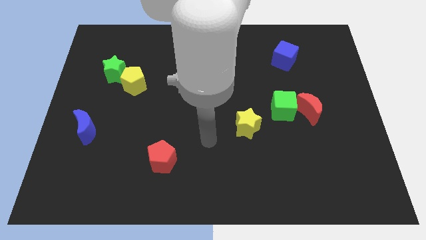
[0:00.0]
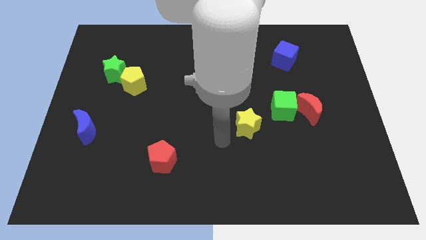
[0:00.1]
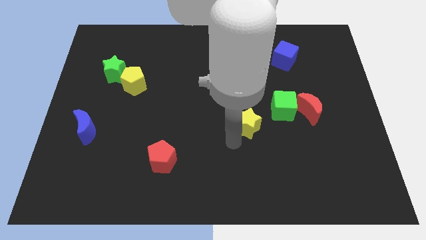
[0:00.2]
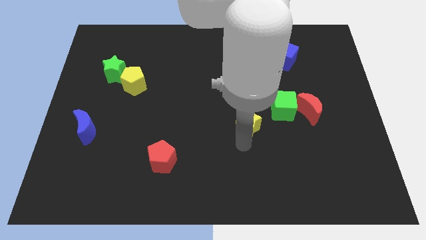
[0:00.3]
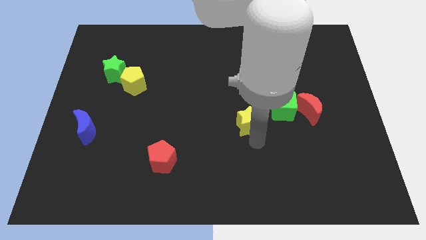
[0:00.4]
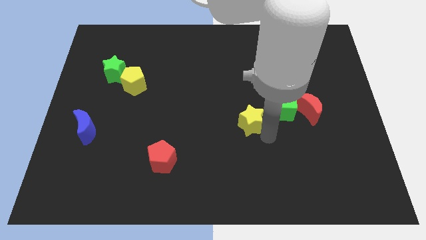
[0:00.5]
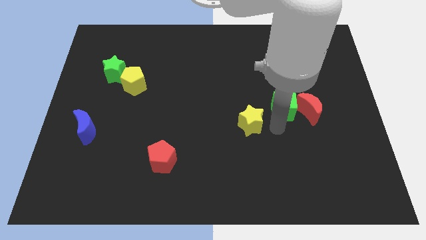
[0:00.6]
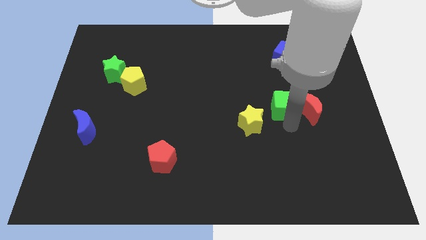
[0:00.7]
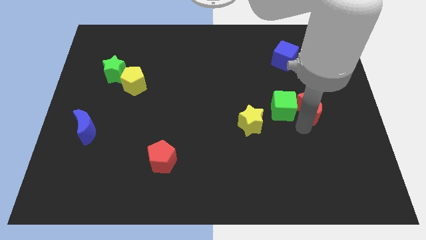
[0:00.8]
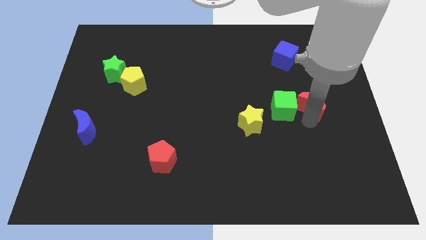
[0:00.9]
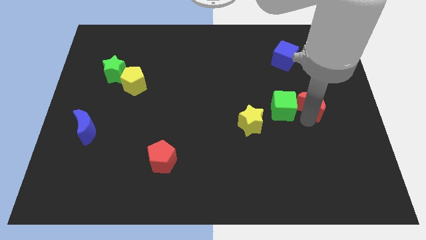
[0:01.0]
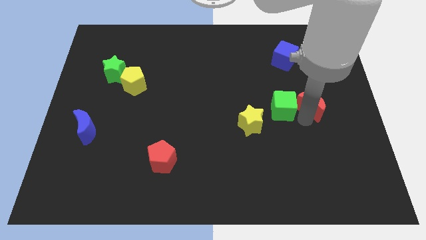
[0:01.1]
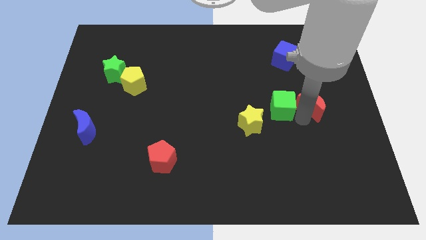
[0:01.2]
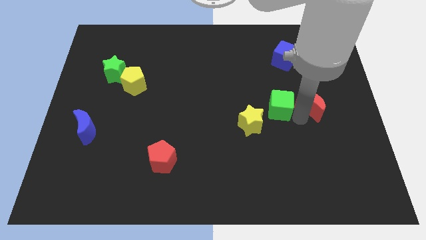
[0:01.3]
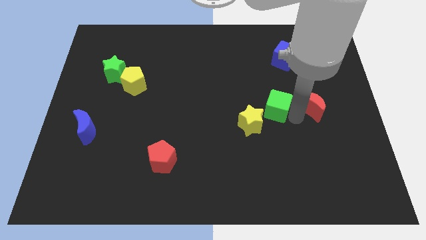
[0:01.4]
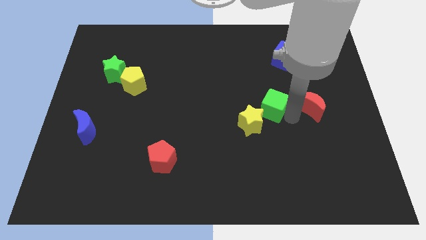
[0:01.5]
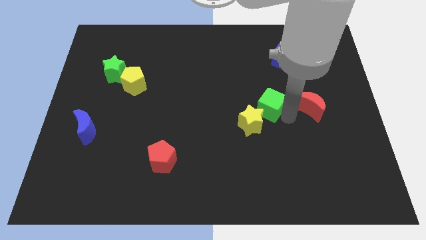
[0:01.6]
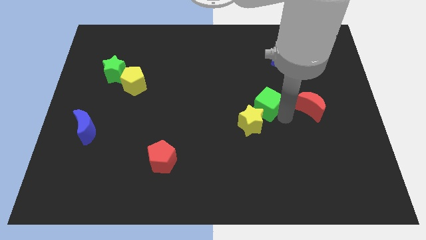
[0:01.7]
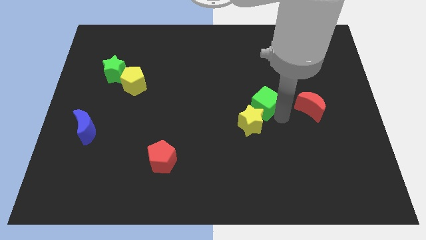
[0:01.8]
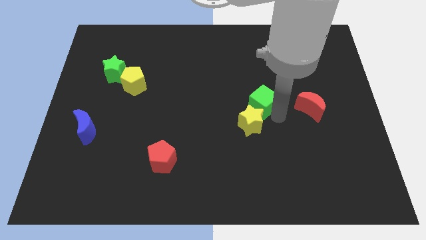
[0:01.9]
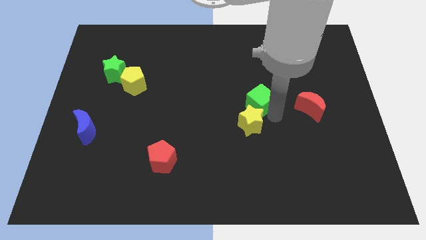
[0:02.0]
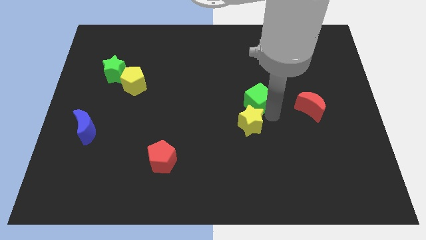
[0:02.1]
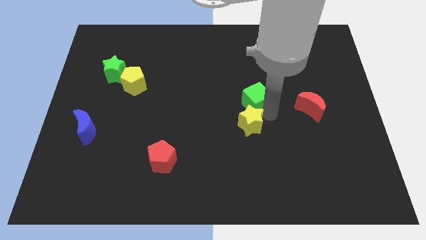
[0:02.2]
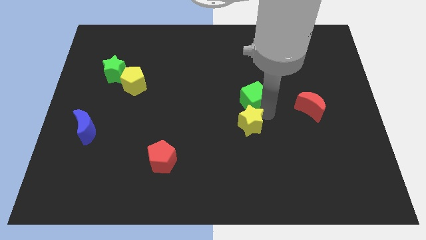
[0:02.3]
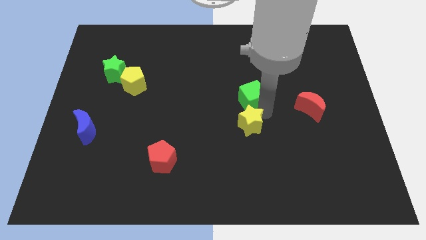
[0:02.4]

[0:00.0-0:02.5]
push the green cube up and then to the left a little bit

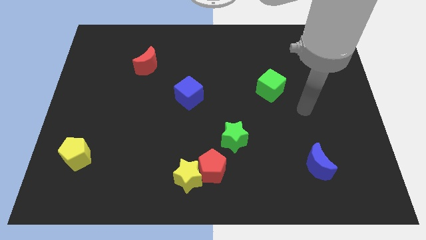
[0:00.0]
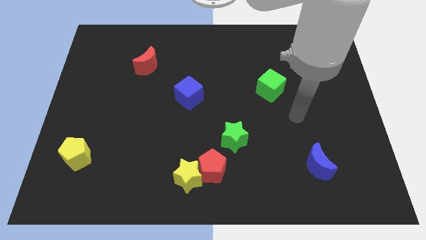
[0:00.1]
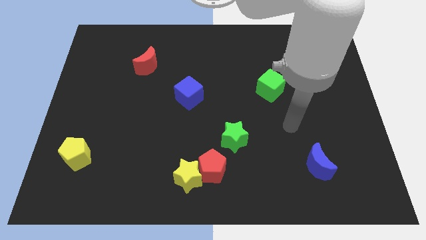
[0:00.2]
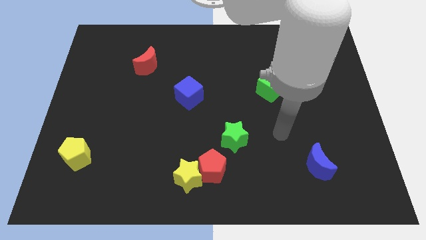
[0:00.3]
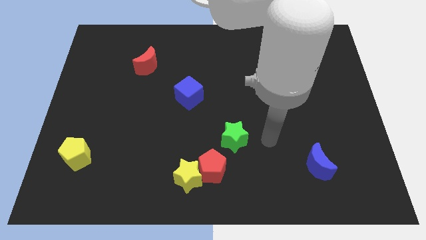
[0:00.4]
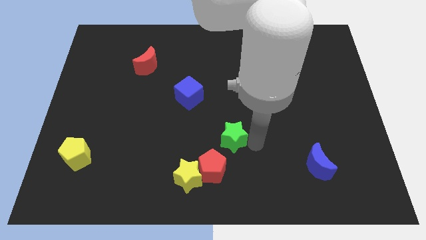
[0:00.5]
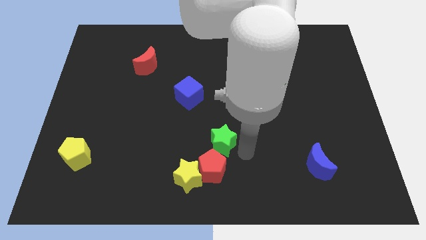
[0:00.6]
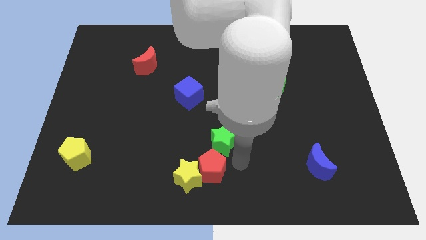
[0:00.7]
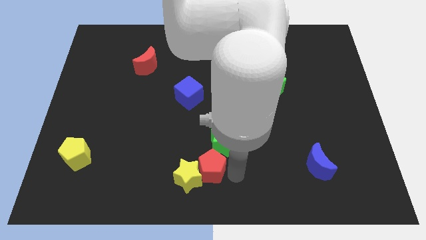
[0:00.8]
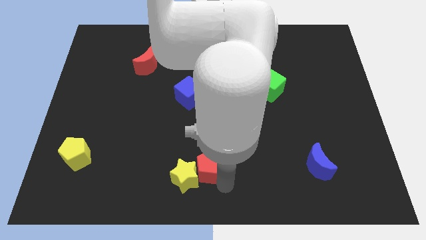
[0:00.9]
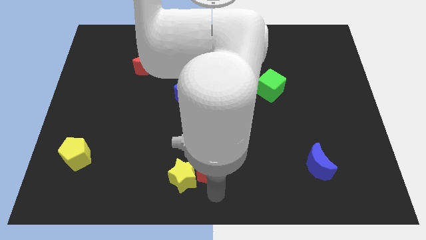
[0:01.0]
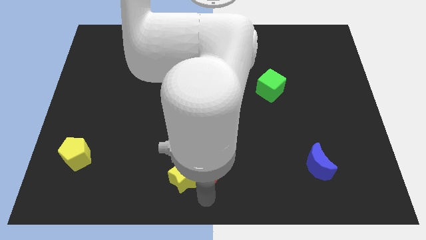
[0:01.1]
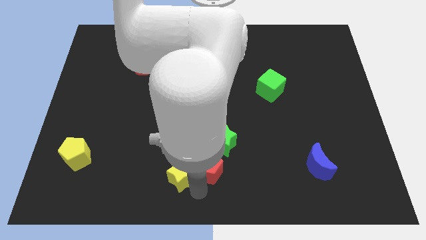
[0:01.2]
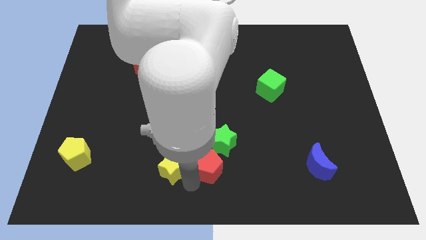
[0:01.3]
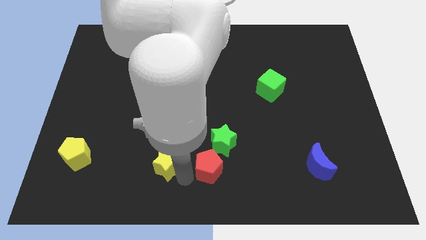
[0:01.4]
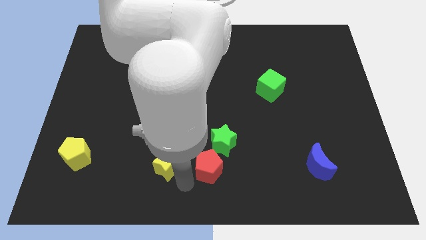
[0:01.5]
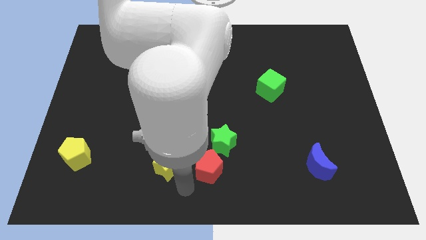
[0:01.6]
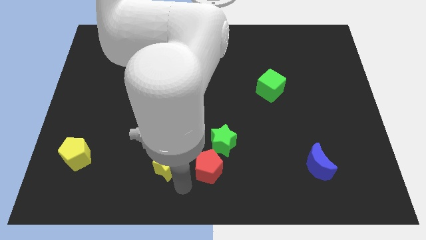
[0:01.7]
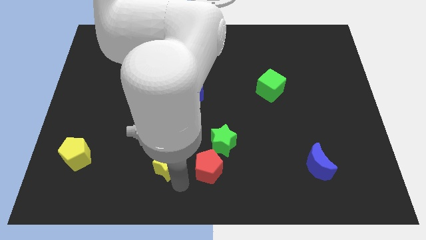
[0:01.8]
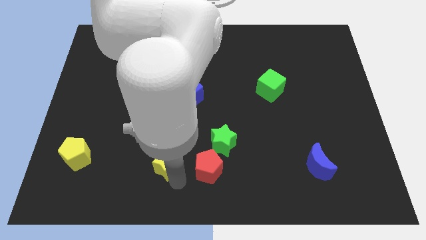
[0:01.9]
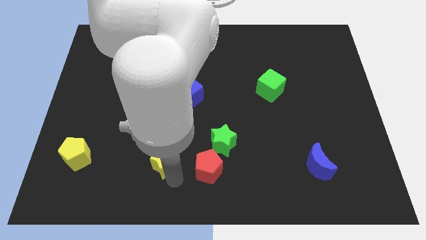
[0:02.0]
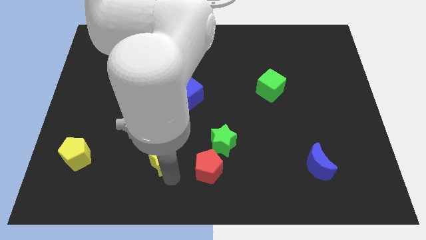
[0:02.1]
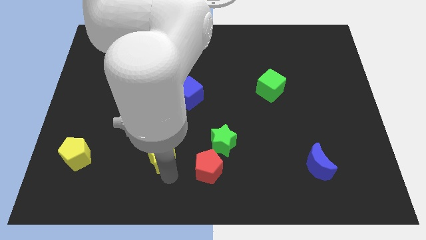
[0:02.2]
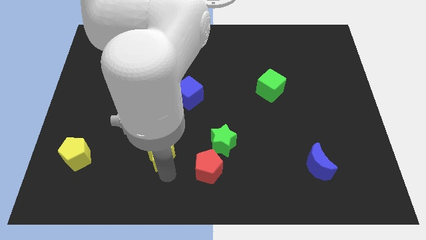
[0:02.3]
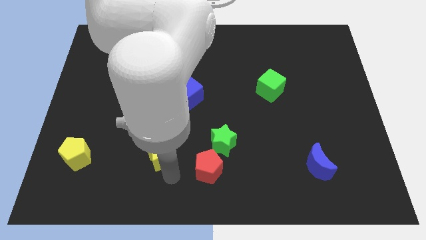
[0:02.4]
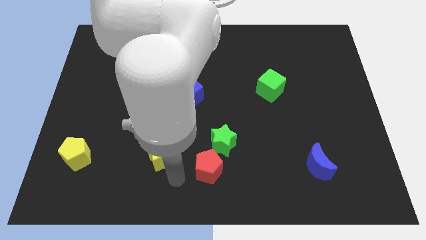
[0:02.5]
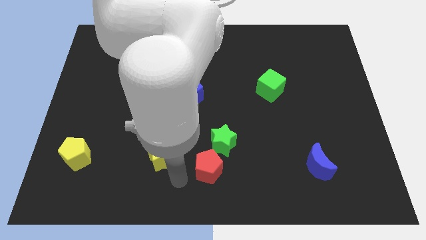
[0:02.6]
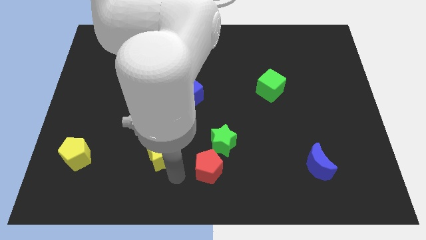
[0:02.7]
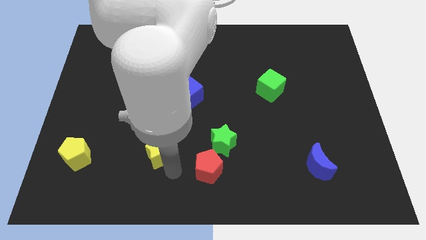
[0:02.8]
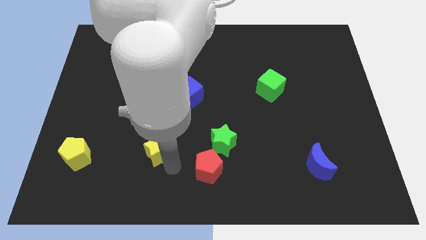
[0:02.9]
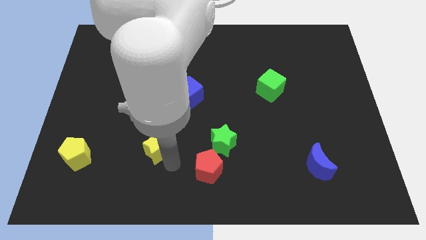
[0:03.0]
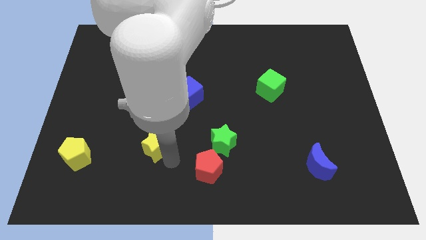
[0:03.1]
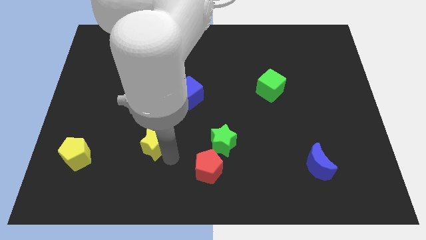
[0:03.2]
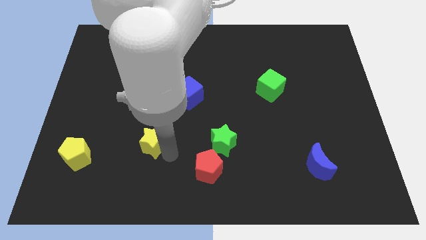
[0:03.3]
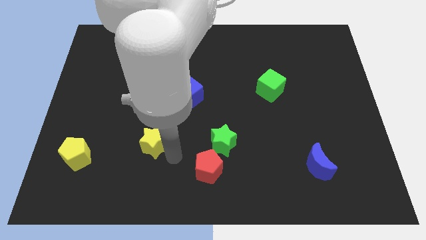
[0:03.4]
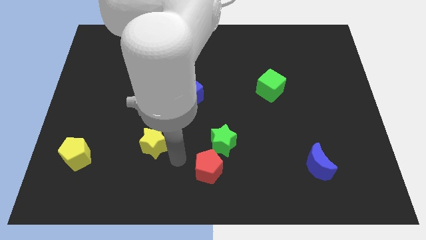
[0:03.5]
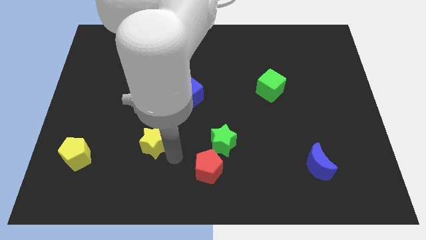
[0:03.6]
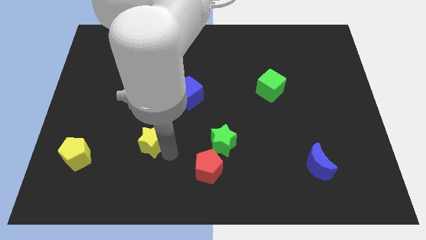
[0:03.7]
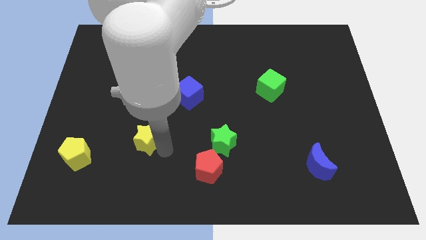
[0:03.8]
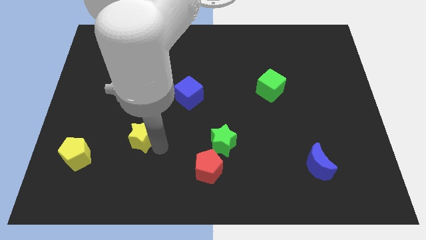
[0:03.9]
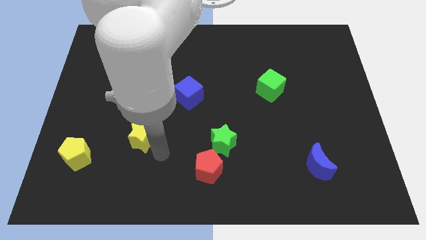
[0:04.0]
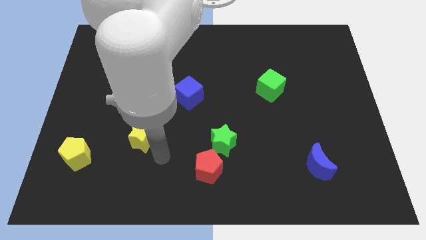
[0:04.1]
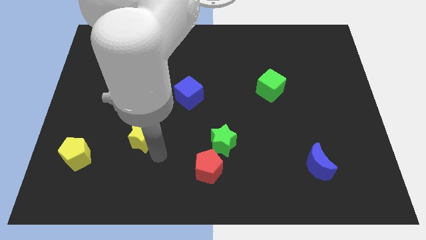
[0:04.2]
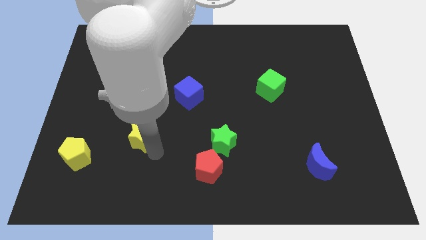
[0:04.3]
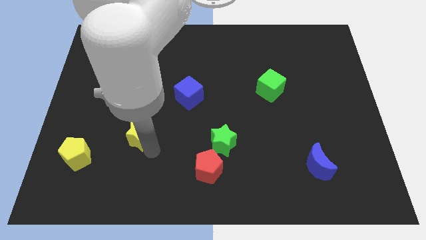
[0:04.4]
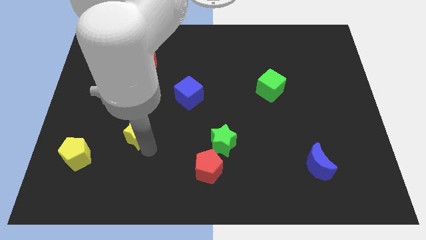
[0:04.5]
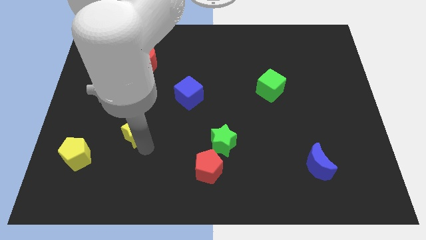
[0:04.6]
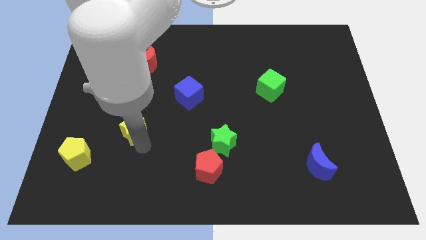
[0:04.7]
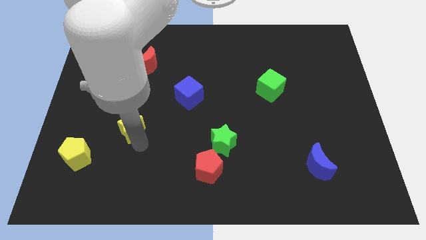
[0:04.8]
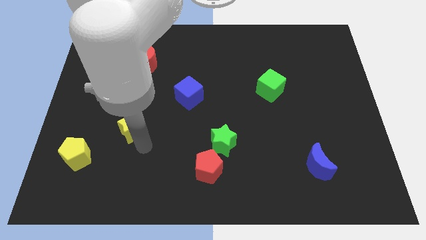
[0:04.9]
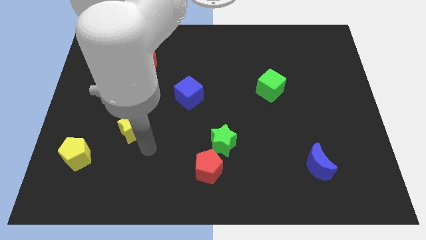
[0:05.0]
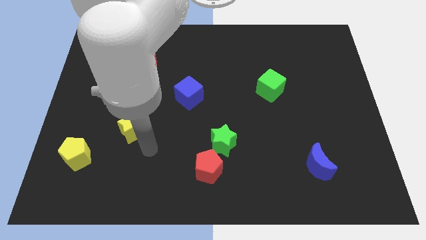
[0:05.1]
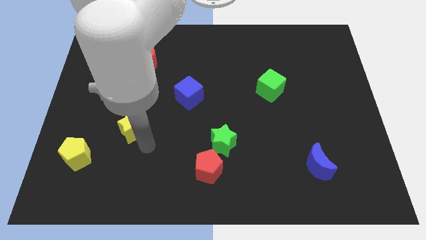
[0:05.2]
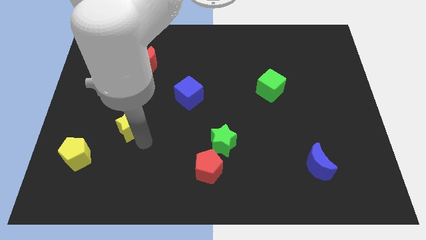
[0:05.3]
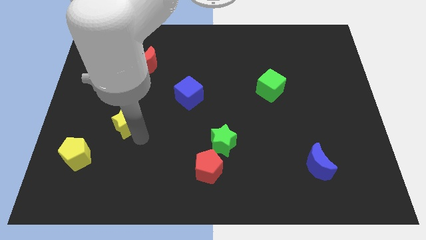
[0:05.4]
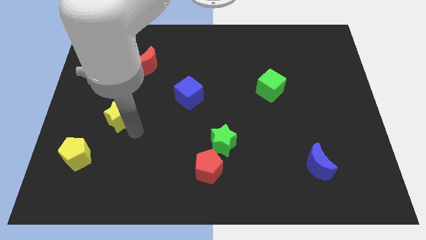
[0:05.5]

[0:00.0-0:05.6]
slide the yellow star upwards and to the left diagonally
